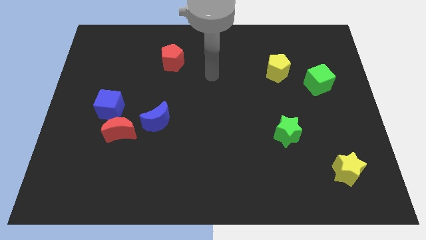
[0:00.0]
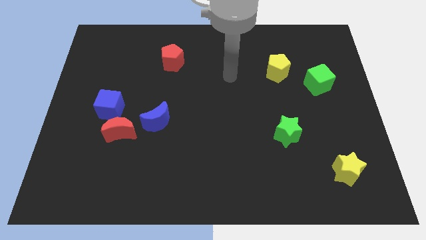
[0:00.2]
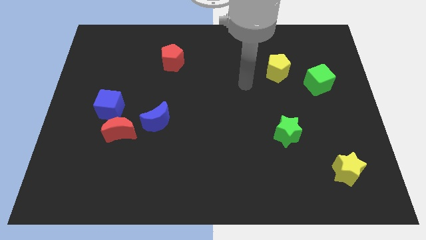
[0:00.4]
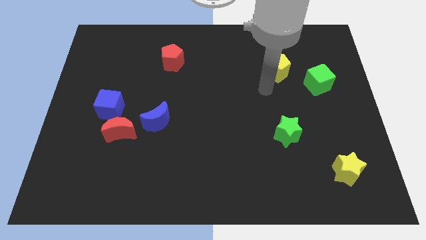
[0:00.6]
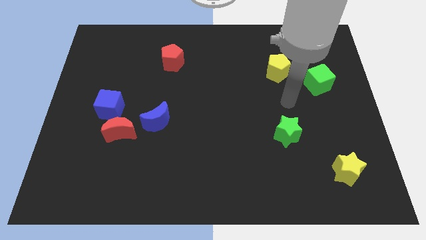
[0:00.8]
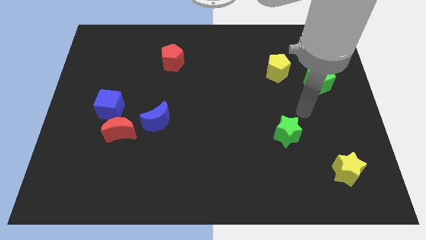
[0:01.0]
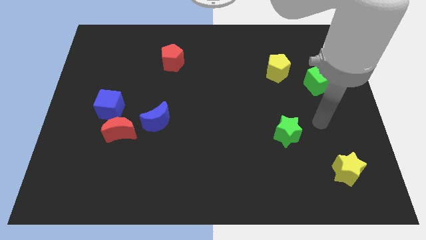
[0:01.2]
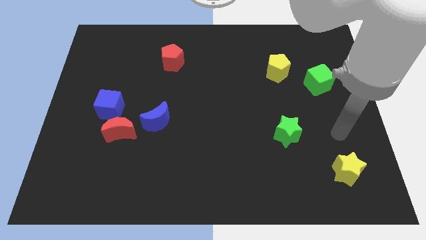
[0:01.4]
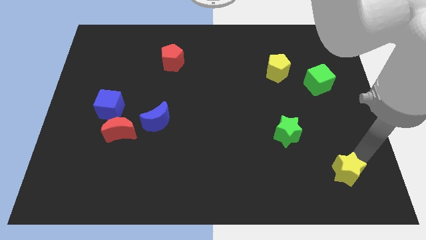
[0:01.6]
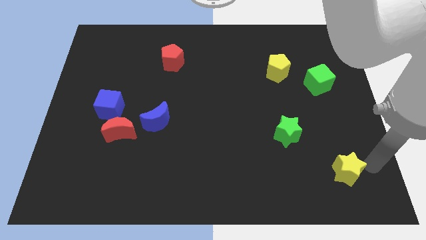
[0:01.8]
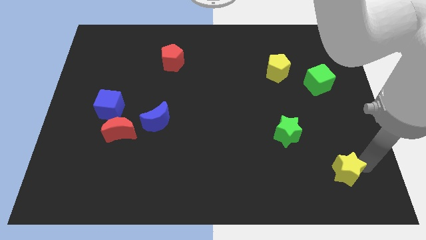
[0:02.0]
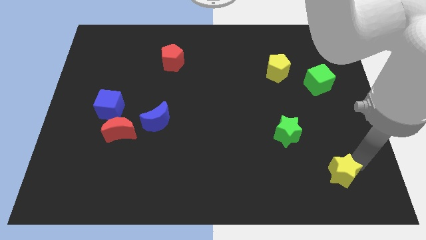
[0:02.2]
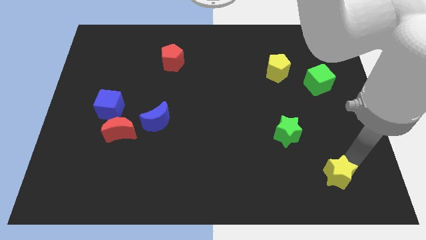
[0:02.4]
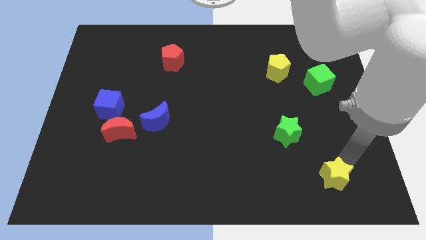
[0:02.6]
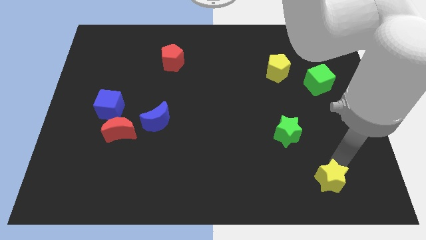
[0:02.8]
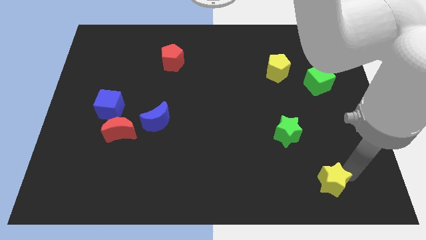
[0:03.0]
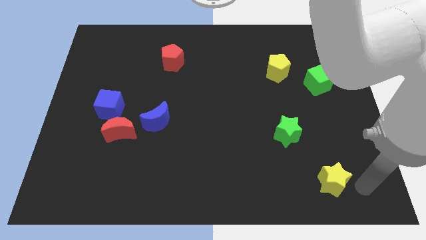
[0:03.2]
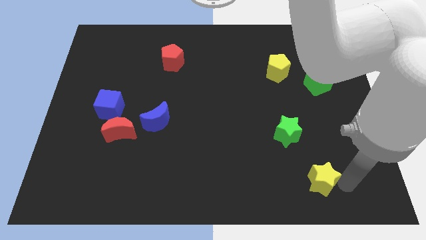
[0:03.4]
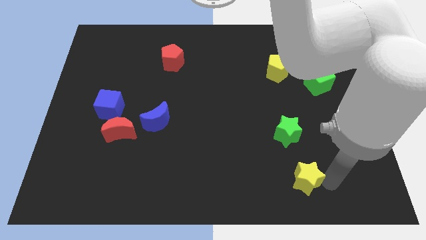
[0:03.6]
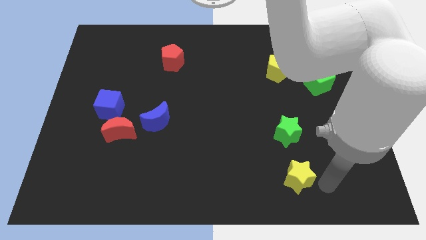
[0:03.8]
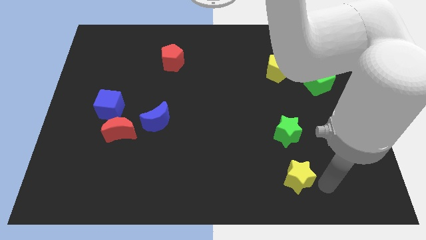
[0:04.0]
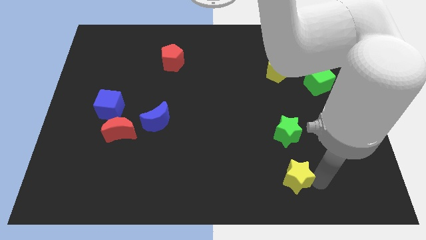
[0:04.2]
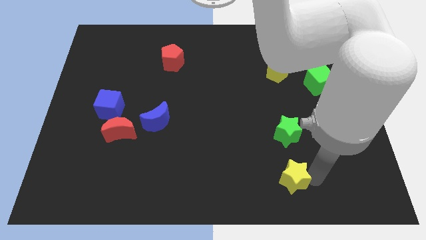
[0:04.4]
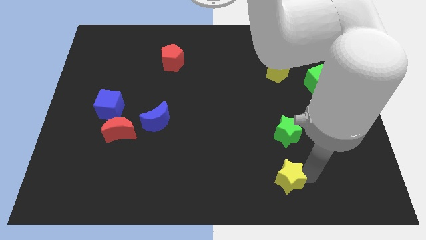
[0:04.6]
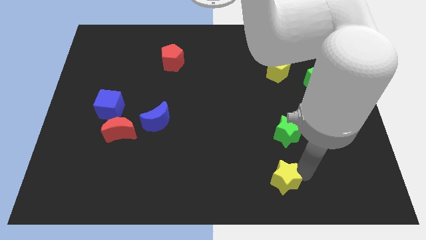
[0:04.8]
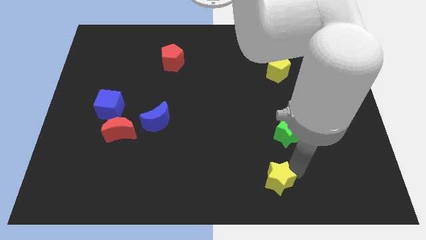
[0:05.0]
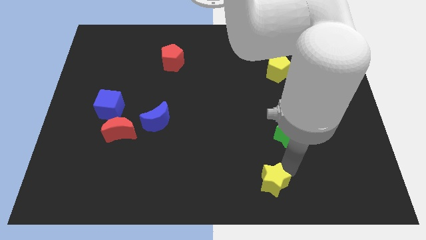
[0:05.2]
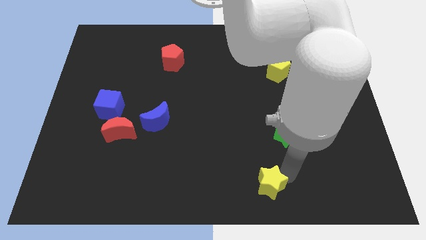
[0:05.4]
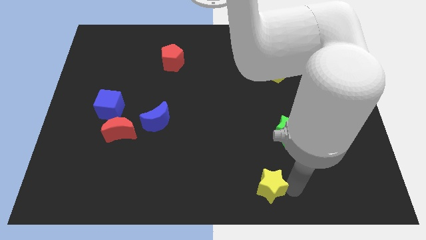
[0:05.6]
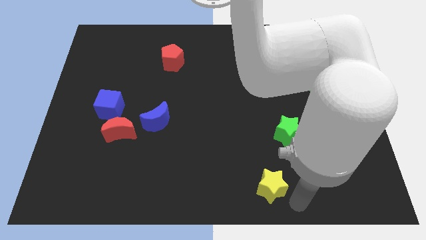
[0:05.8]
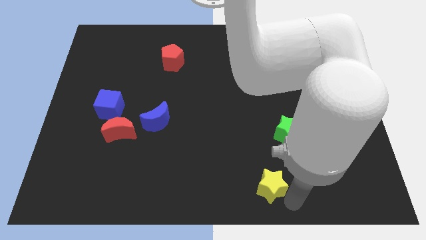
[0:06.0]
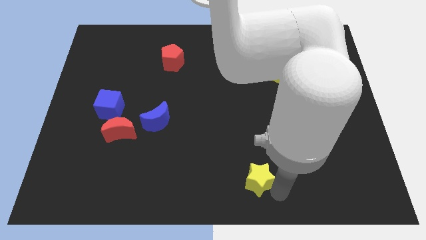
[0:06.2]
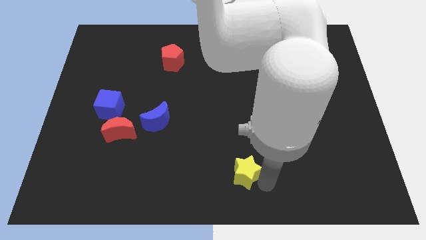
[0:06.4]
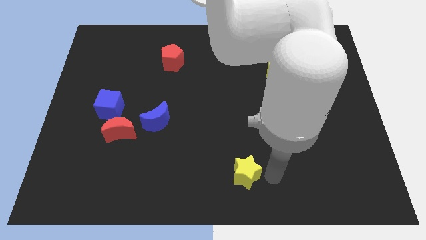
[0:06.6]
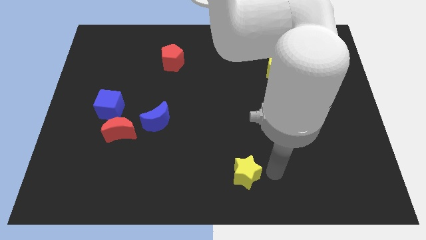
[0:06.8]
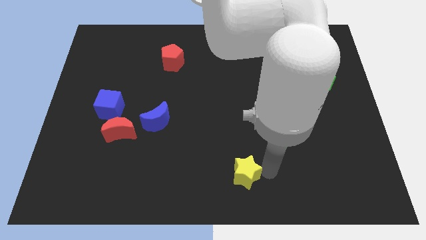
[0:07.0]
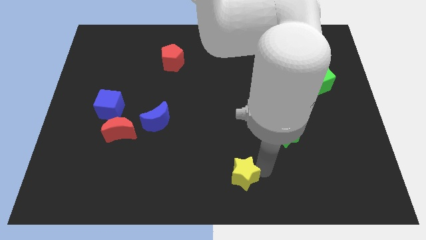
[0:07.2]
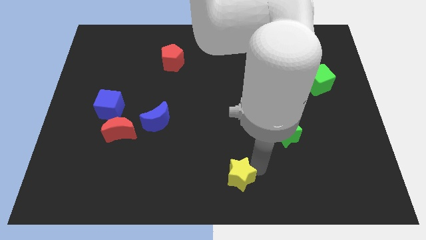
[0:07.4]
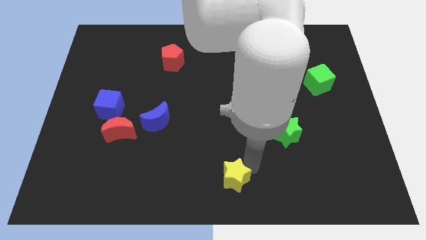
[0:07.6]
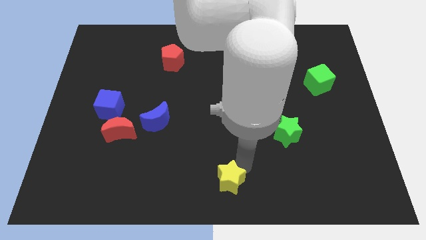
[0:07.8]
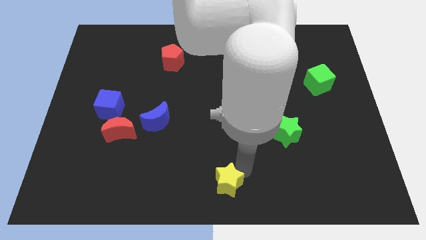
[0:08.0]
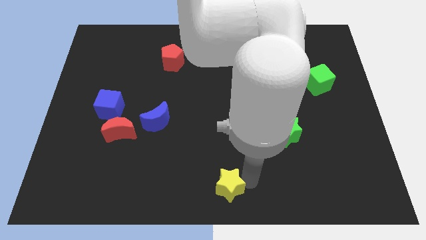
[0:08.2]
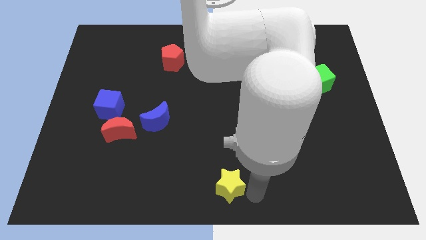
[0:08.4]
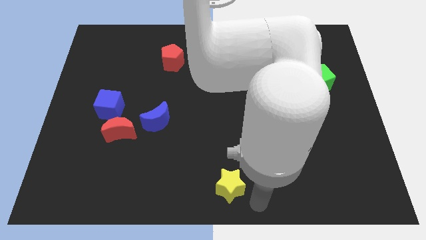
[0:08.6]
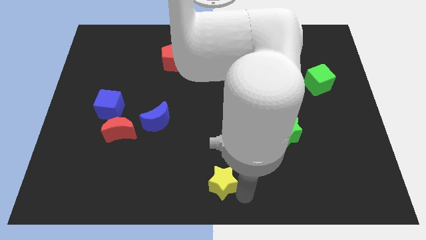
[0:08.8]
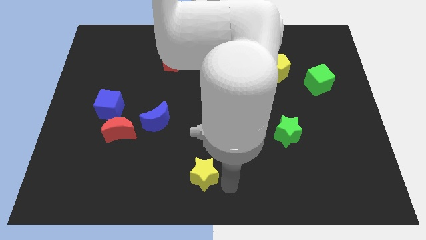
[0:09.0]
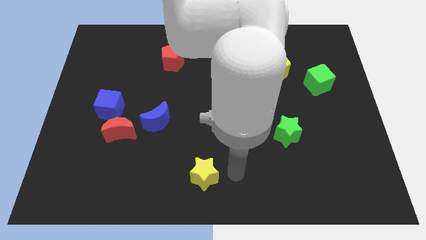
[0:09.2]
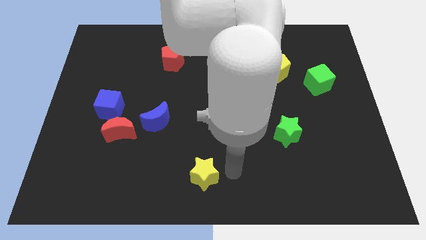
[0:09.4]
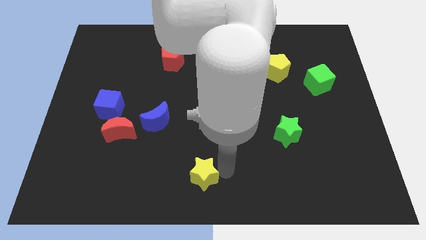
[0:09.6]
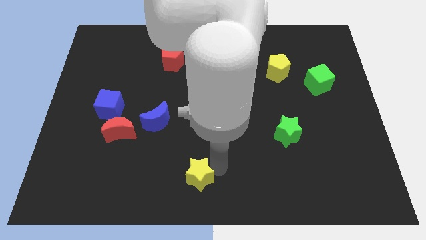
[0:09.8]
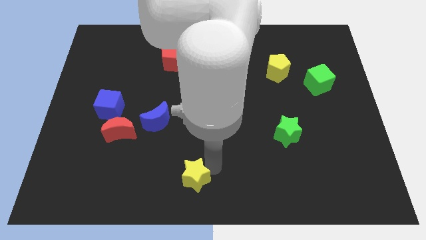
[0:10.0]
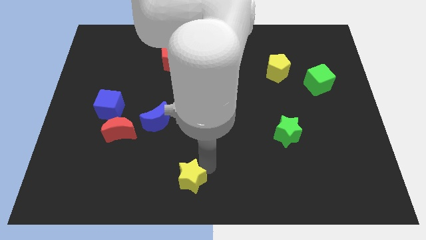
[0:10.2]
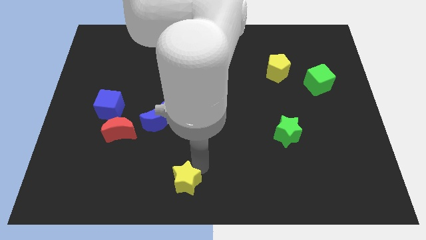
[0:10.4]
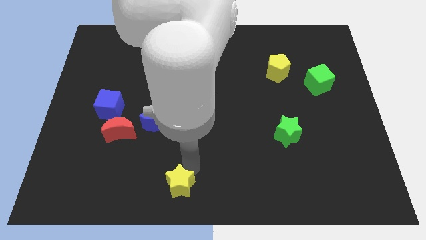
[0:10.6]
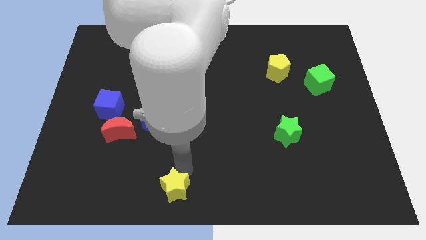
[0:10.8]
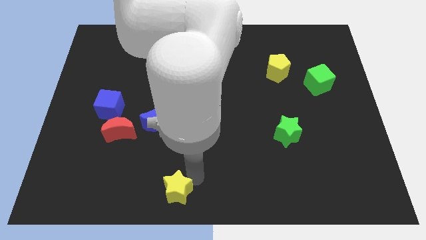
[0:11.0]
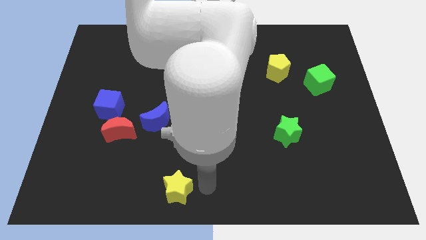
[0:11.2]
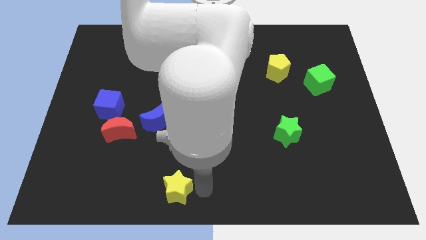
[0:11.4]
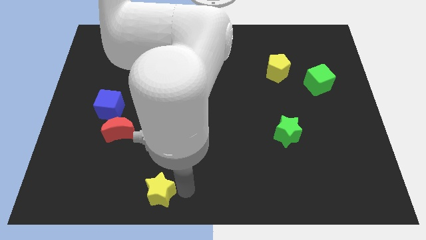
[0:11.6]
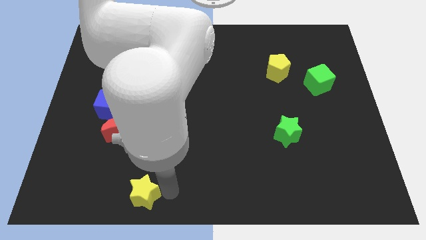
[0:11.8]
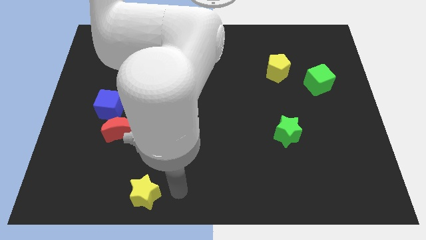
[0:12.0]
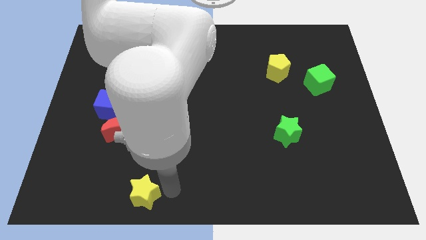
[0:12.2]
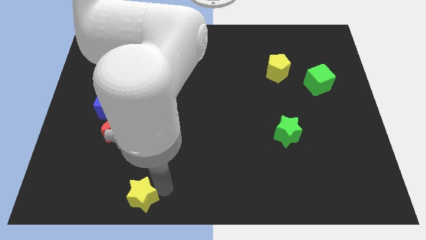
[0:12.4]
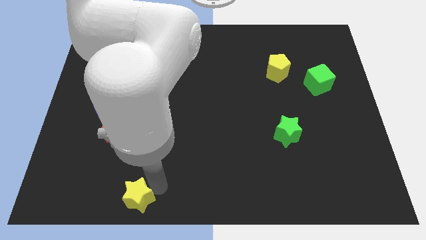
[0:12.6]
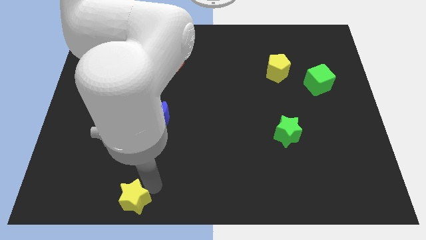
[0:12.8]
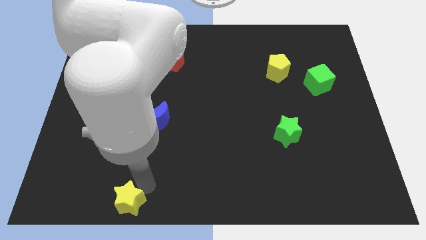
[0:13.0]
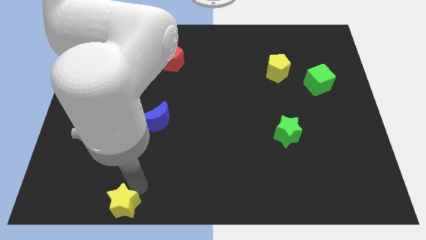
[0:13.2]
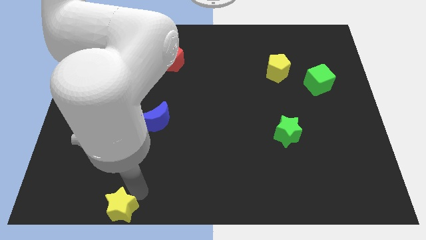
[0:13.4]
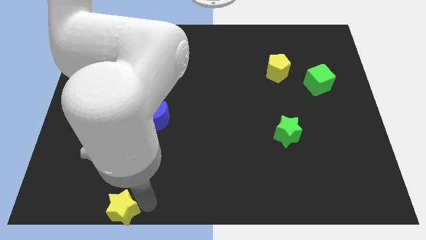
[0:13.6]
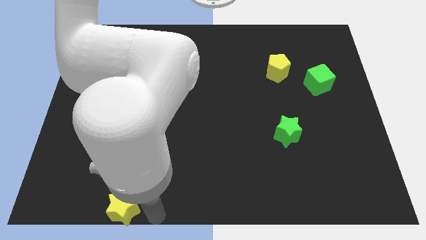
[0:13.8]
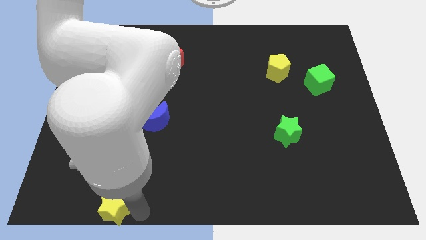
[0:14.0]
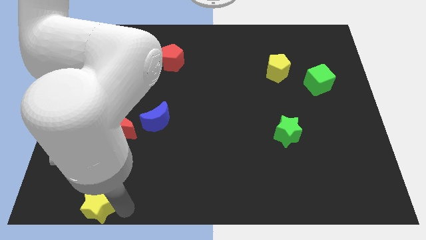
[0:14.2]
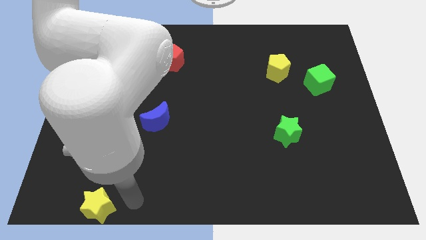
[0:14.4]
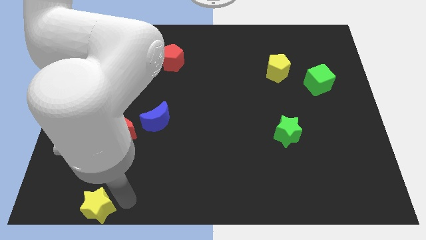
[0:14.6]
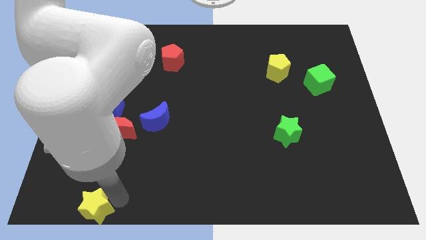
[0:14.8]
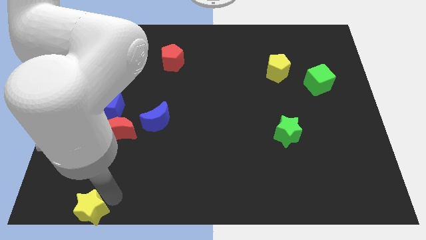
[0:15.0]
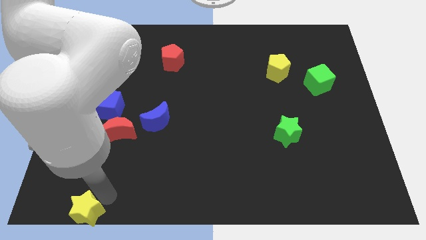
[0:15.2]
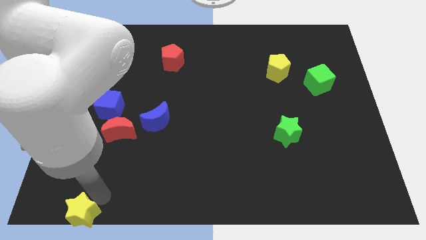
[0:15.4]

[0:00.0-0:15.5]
slide the yellow star to the lower left corner
